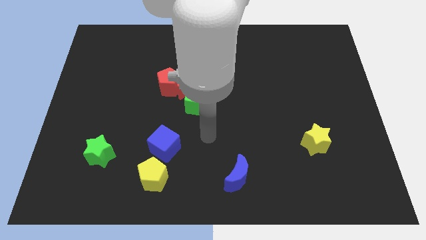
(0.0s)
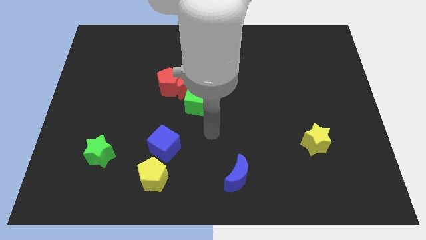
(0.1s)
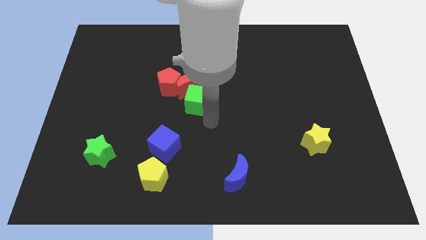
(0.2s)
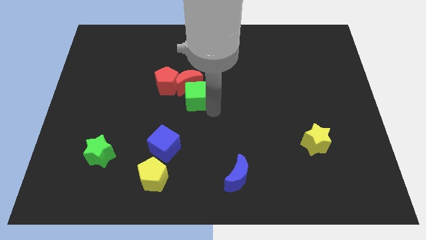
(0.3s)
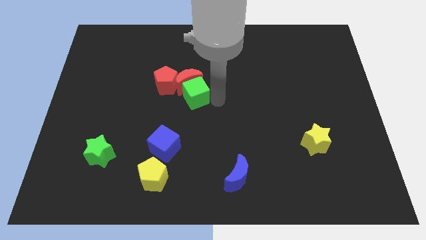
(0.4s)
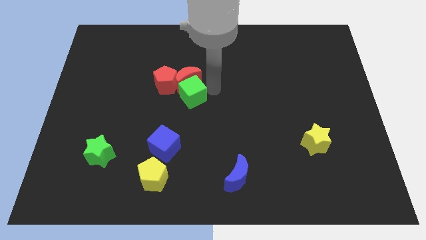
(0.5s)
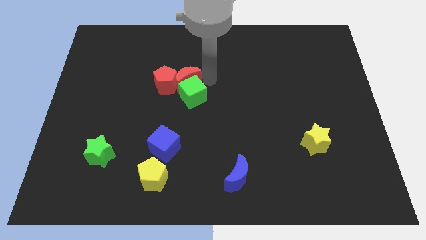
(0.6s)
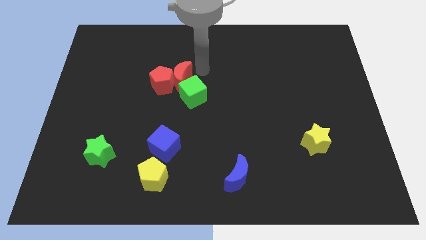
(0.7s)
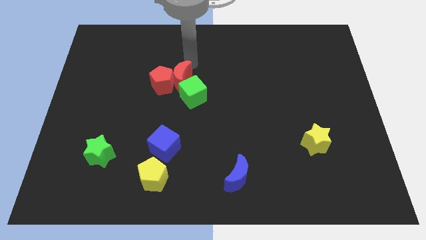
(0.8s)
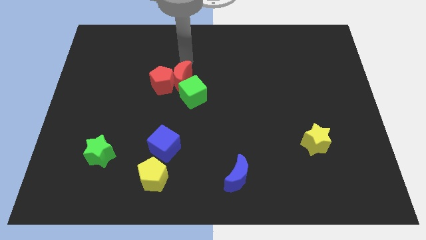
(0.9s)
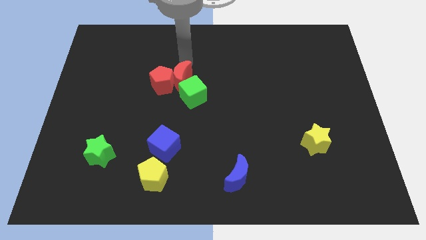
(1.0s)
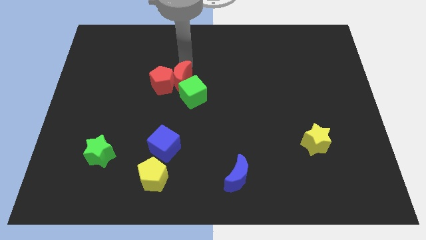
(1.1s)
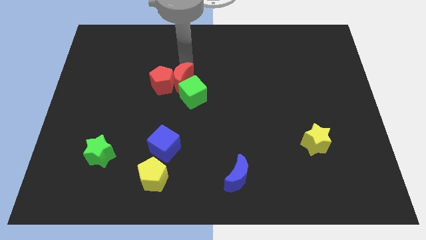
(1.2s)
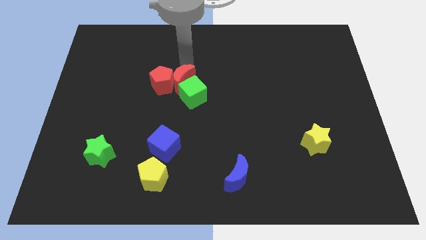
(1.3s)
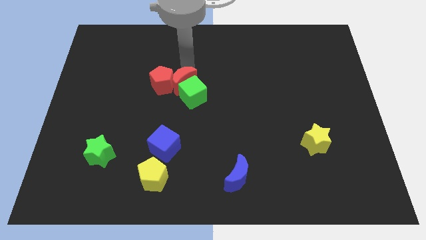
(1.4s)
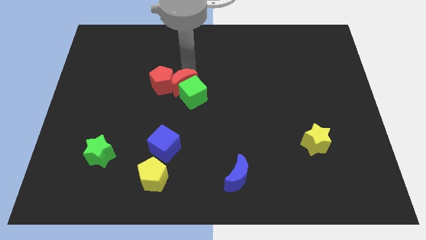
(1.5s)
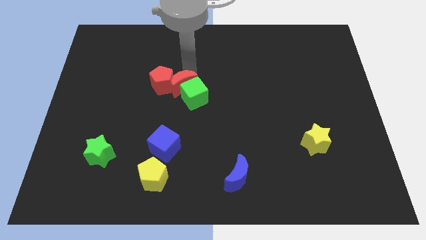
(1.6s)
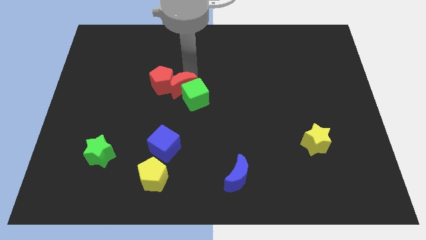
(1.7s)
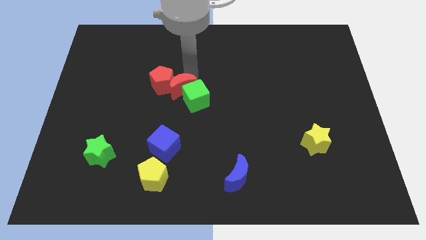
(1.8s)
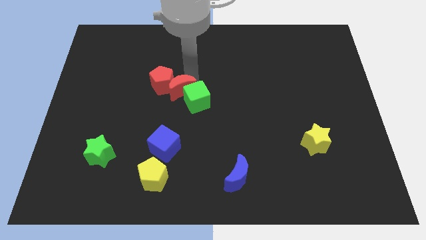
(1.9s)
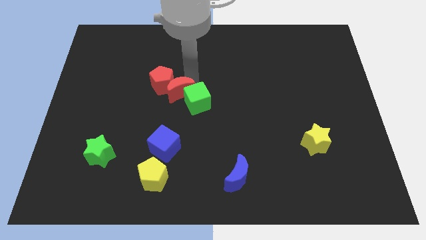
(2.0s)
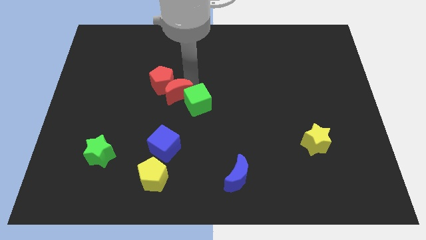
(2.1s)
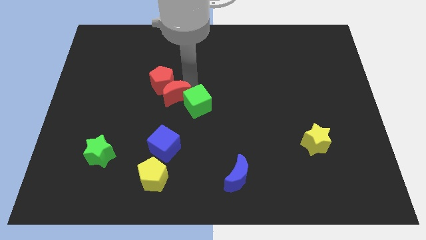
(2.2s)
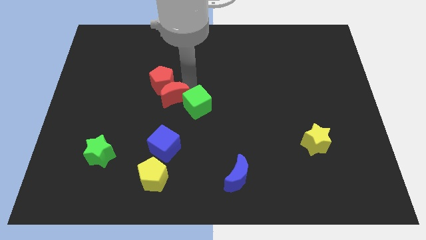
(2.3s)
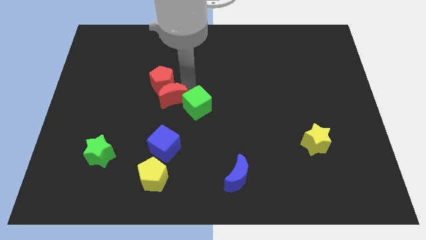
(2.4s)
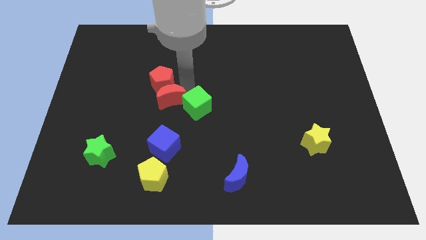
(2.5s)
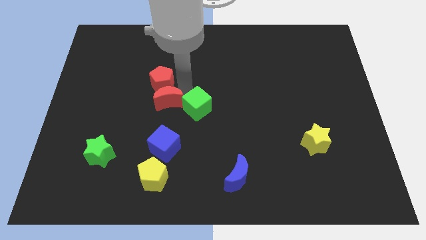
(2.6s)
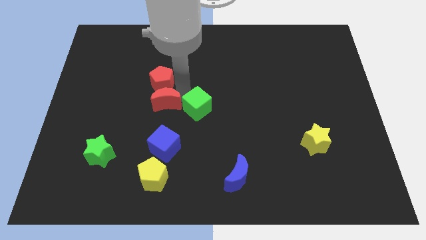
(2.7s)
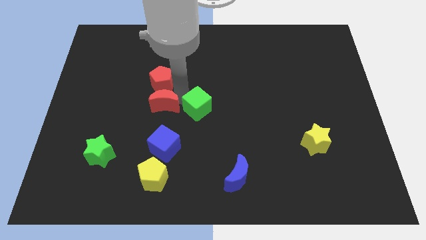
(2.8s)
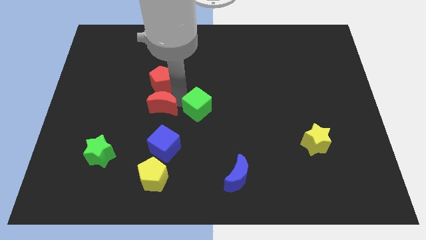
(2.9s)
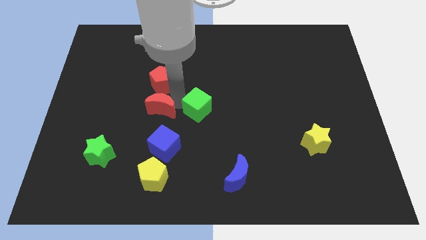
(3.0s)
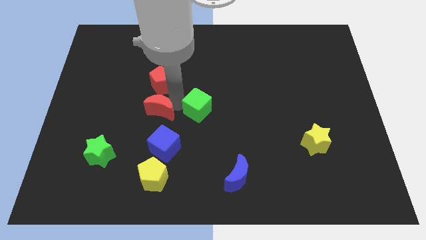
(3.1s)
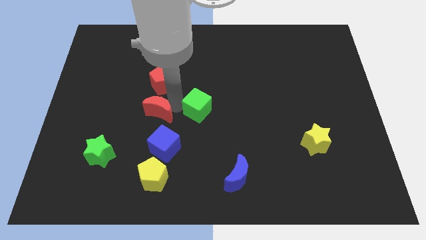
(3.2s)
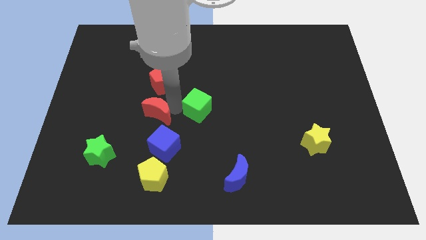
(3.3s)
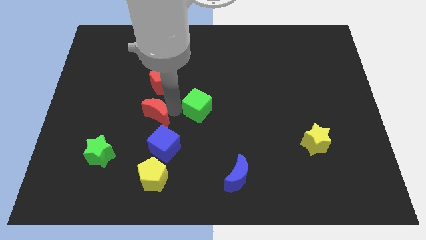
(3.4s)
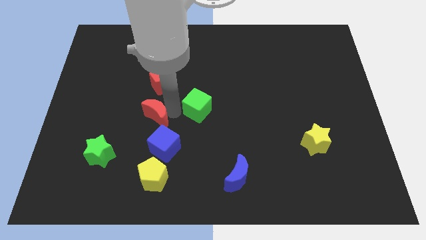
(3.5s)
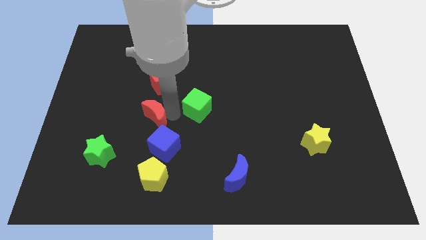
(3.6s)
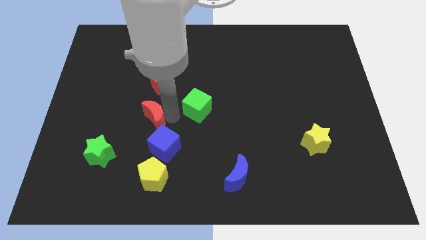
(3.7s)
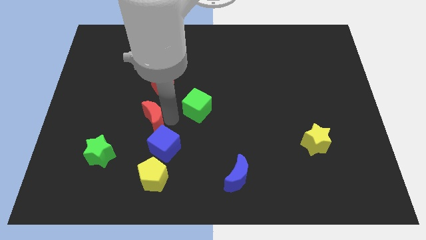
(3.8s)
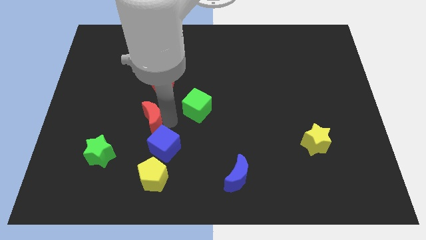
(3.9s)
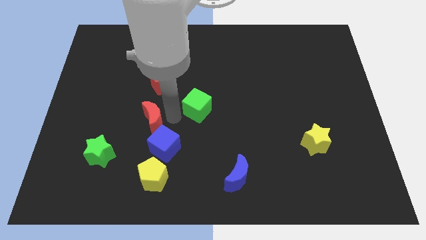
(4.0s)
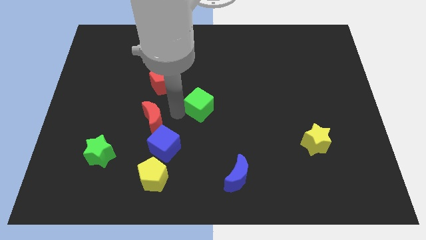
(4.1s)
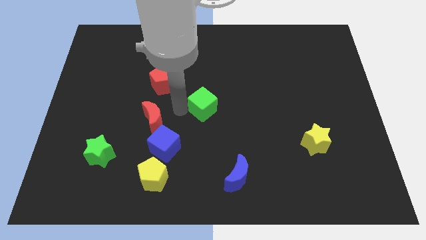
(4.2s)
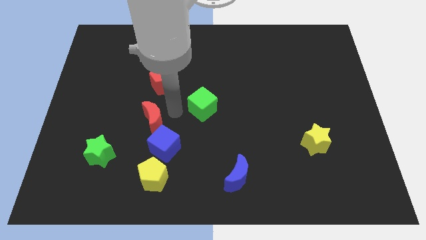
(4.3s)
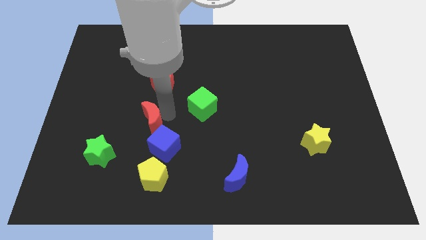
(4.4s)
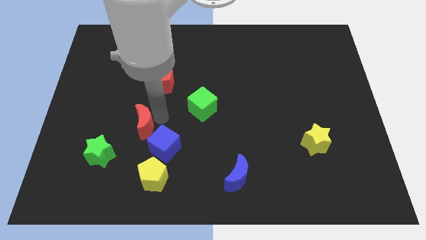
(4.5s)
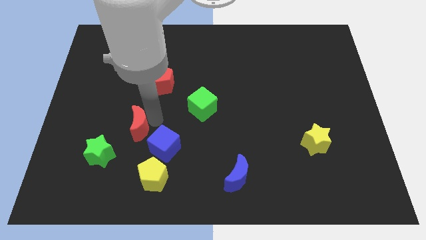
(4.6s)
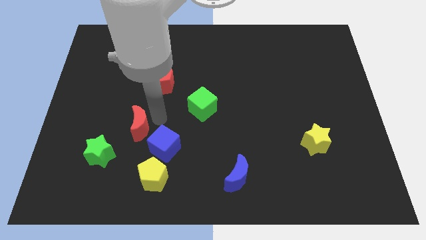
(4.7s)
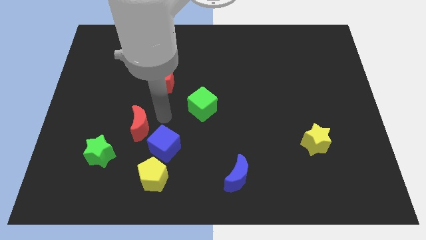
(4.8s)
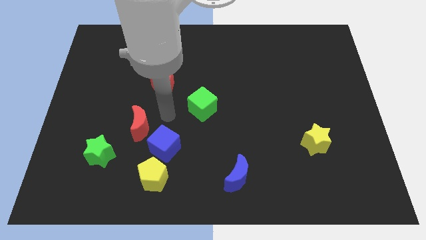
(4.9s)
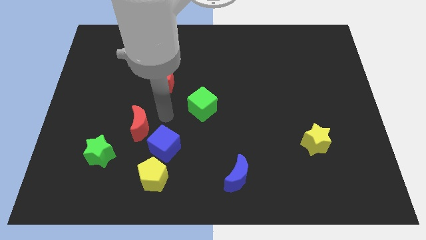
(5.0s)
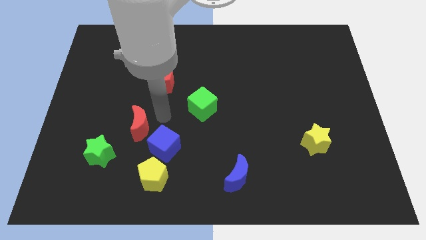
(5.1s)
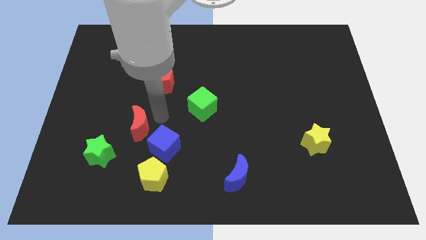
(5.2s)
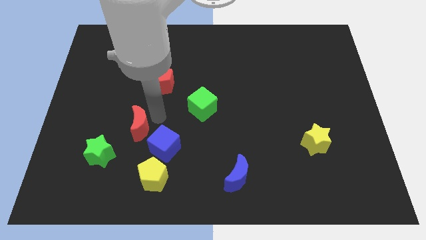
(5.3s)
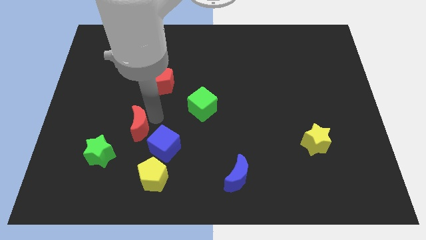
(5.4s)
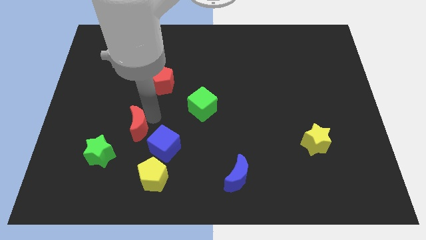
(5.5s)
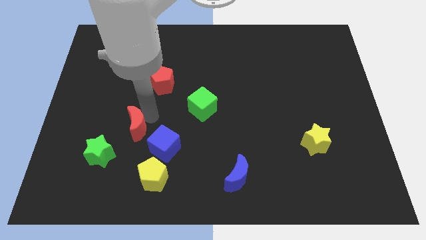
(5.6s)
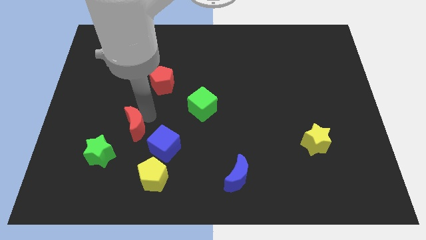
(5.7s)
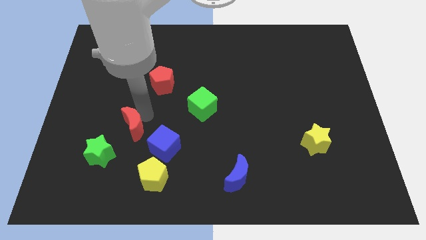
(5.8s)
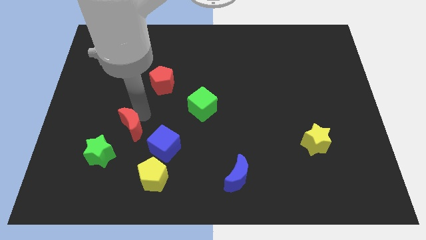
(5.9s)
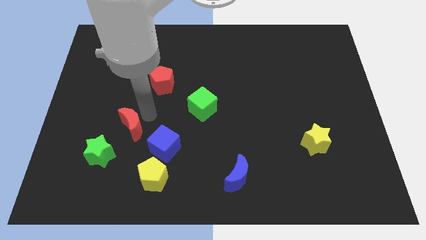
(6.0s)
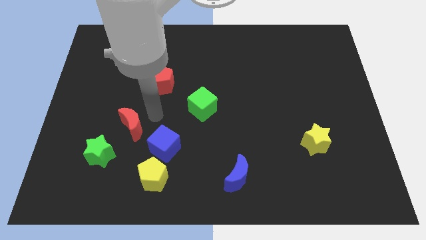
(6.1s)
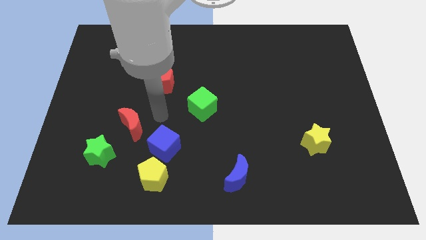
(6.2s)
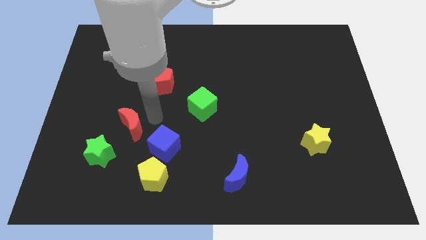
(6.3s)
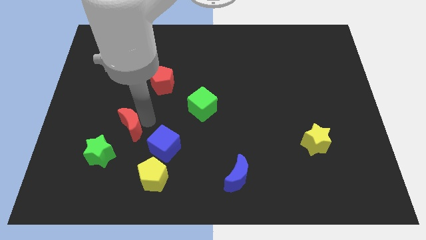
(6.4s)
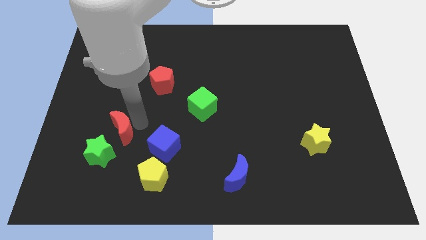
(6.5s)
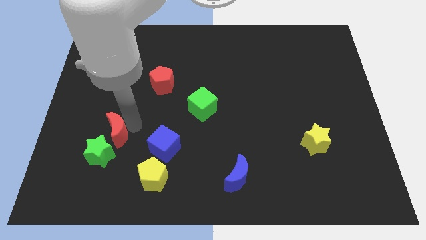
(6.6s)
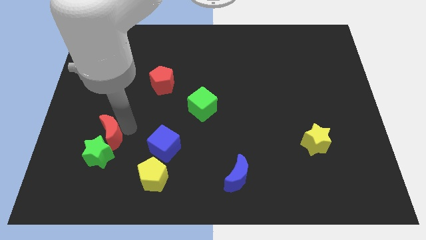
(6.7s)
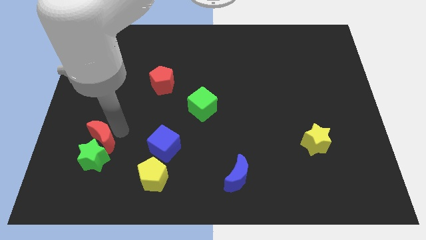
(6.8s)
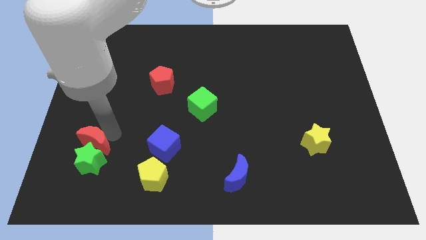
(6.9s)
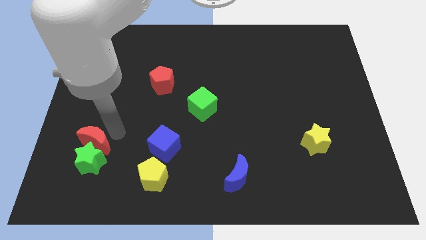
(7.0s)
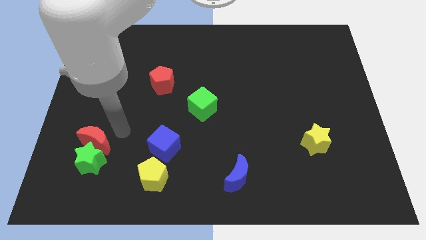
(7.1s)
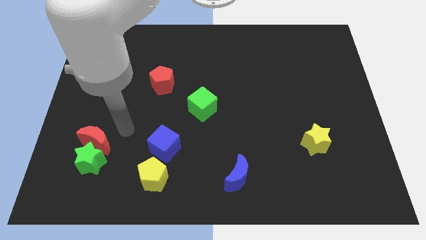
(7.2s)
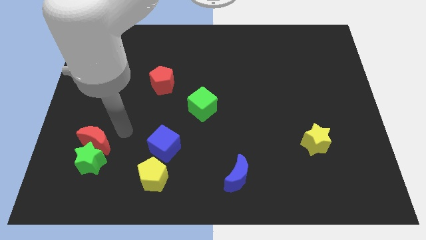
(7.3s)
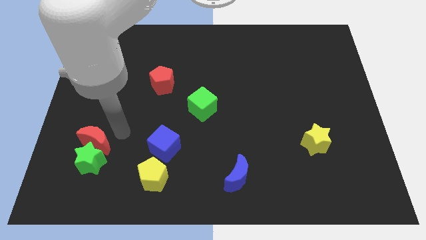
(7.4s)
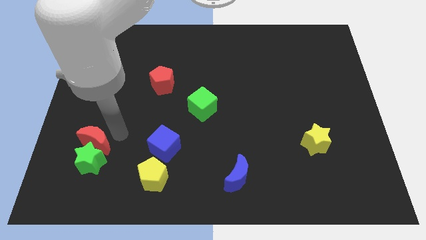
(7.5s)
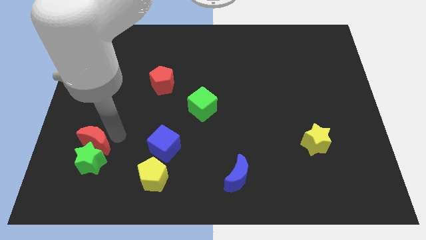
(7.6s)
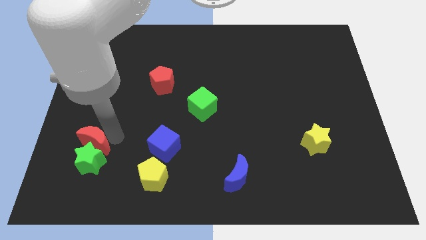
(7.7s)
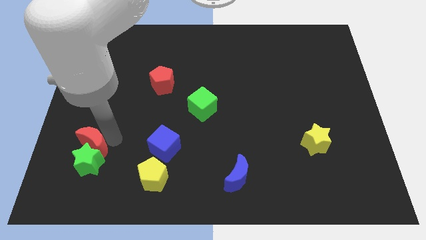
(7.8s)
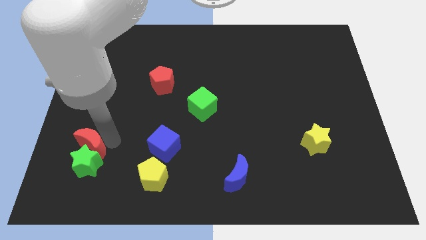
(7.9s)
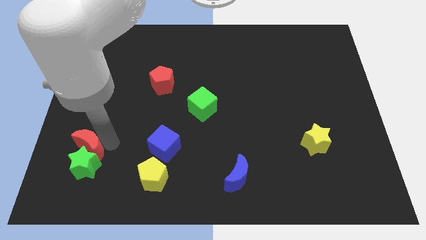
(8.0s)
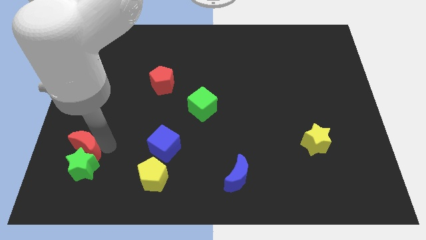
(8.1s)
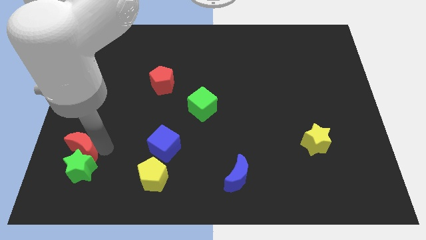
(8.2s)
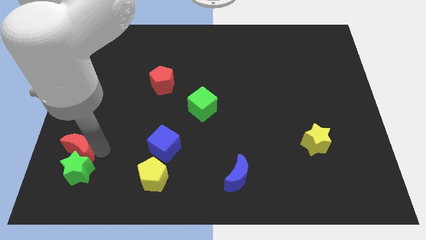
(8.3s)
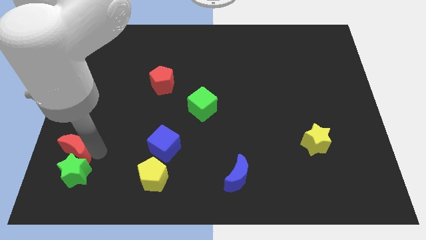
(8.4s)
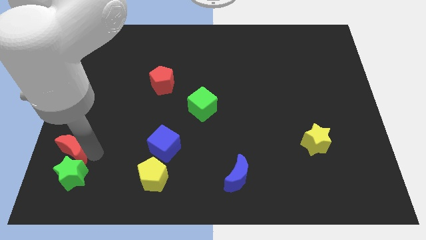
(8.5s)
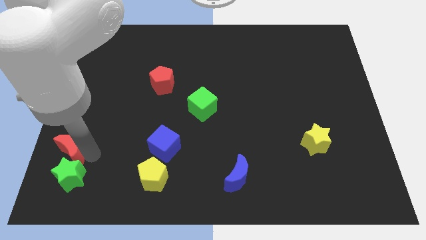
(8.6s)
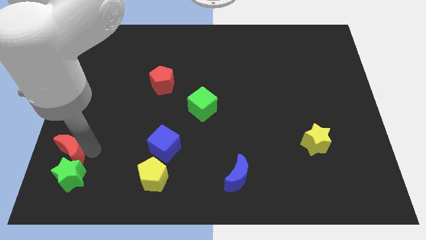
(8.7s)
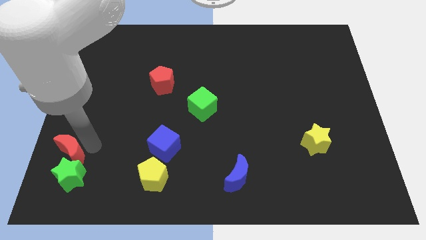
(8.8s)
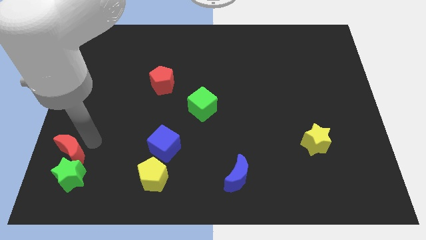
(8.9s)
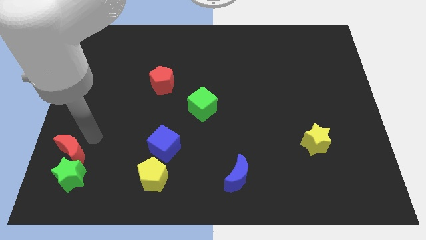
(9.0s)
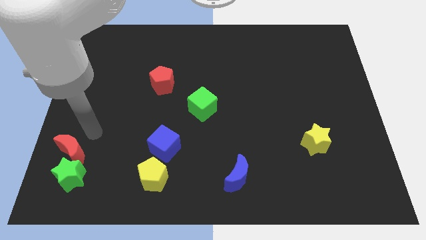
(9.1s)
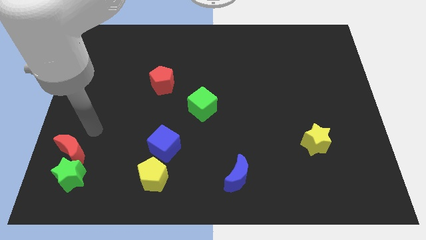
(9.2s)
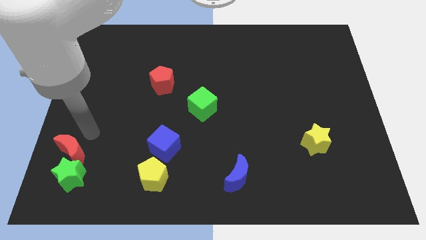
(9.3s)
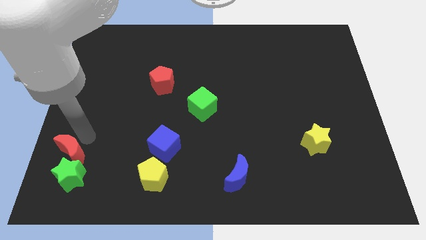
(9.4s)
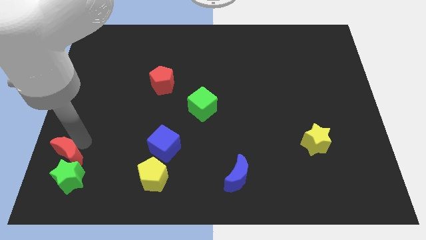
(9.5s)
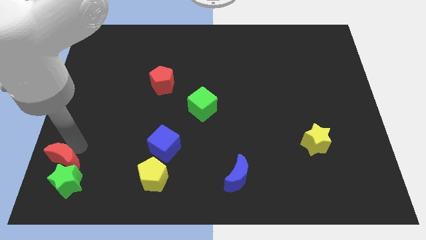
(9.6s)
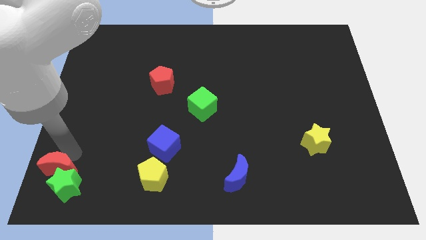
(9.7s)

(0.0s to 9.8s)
push the red moon to the bottom left corner
